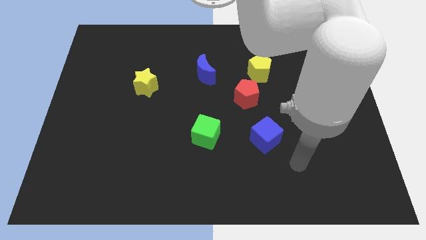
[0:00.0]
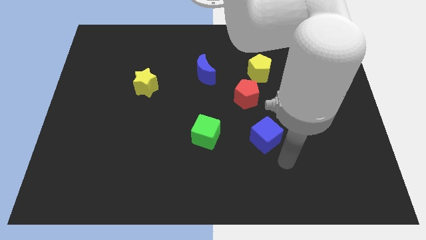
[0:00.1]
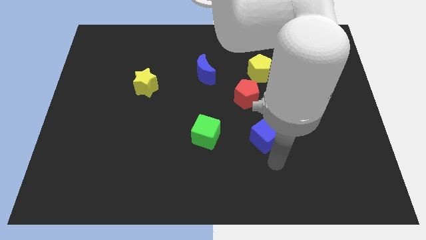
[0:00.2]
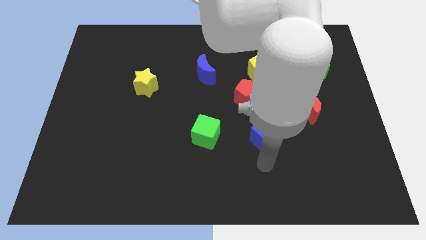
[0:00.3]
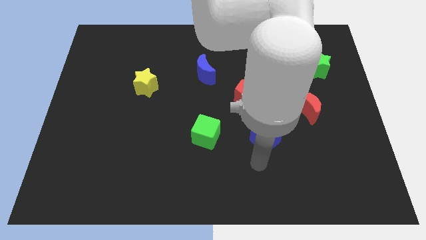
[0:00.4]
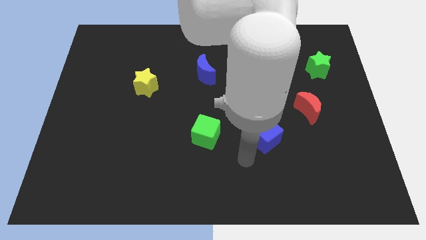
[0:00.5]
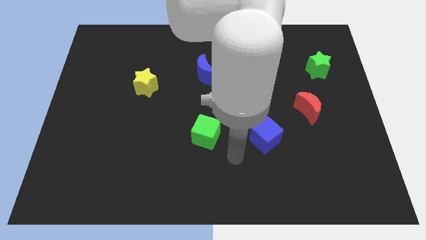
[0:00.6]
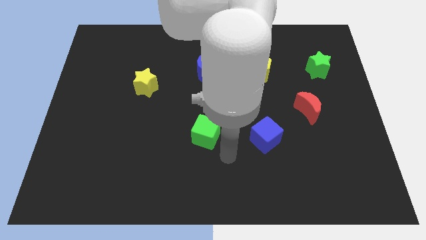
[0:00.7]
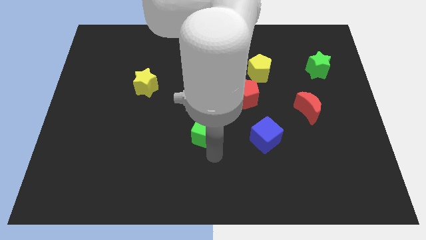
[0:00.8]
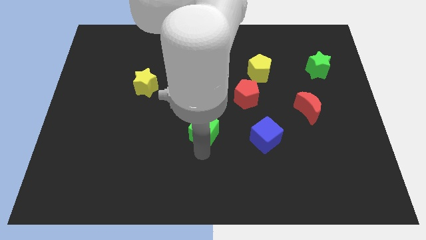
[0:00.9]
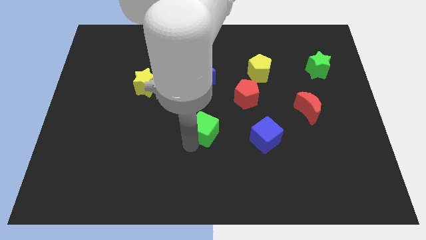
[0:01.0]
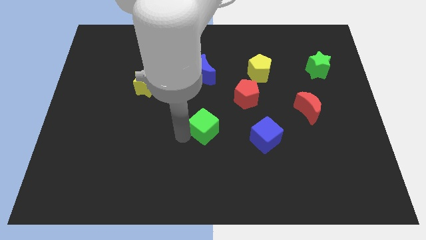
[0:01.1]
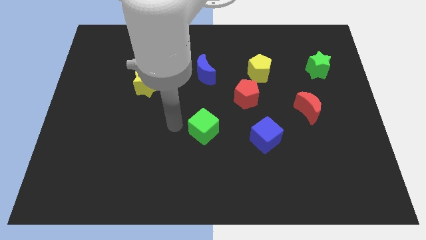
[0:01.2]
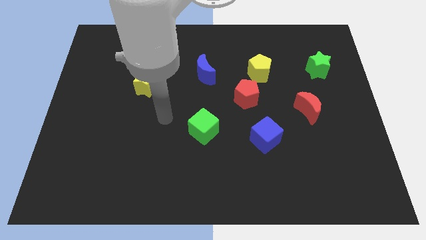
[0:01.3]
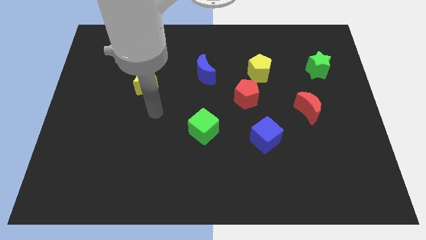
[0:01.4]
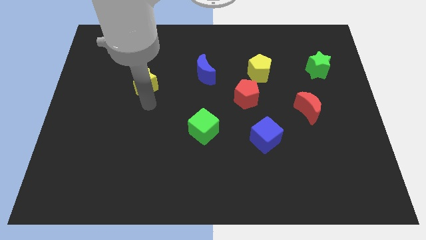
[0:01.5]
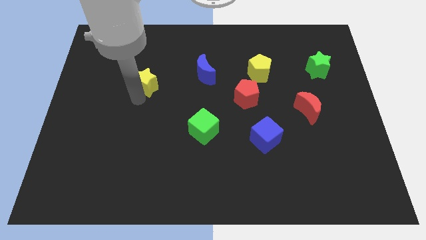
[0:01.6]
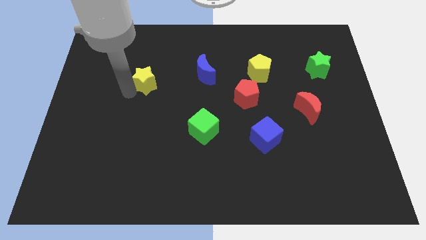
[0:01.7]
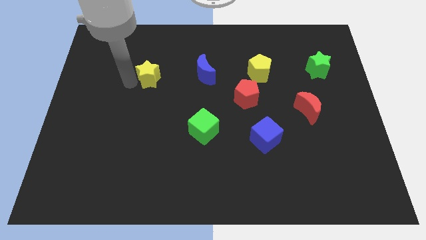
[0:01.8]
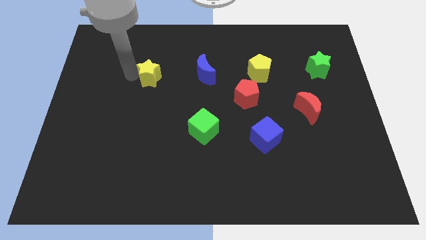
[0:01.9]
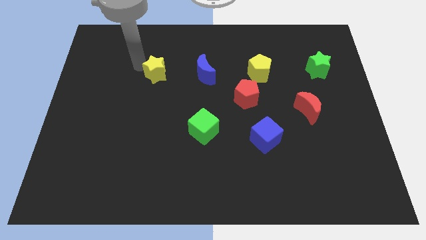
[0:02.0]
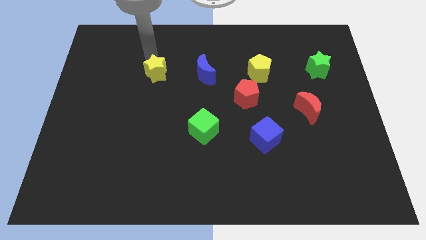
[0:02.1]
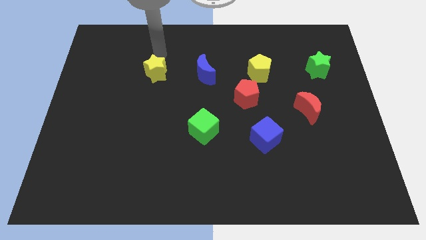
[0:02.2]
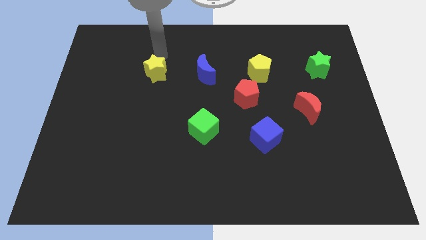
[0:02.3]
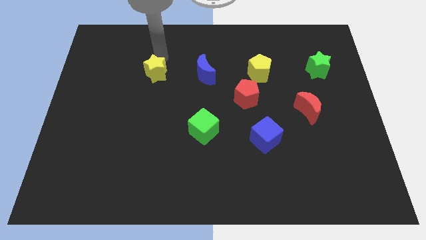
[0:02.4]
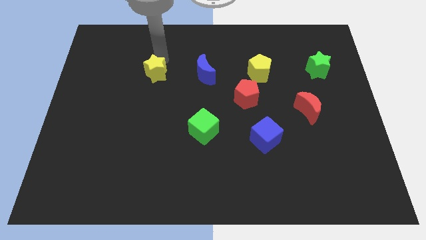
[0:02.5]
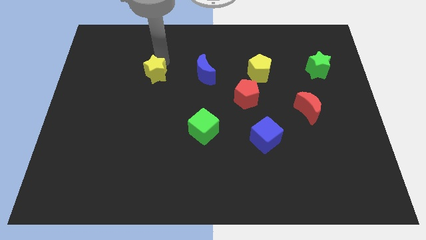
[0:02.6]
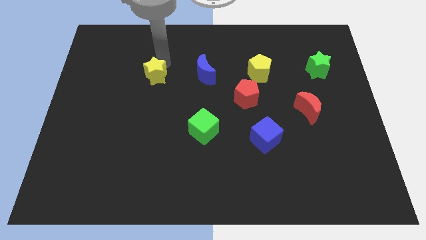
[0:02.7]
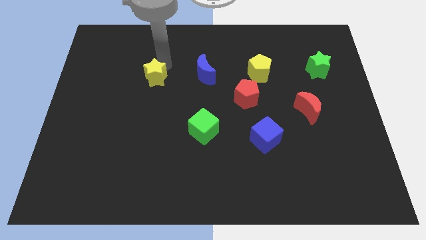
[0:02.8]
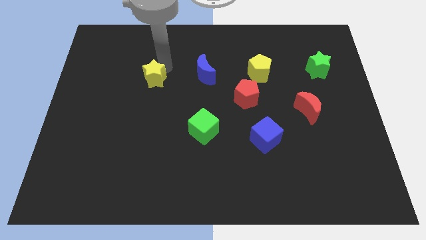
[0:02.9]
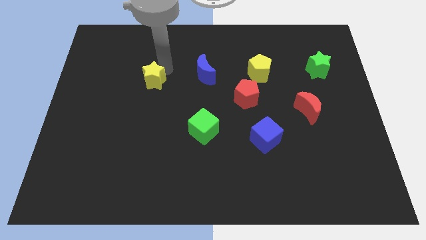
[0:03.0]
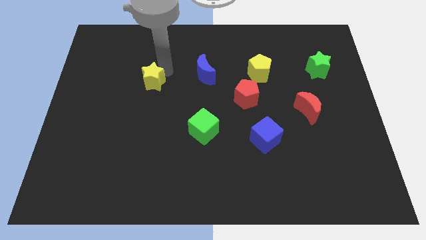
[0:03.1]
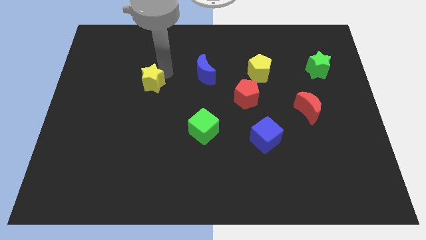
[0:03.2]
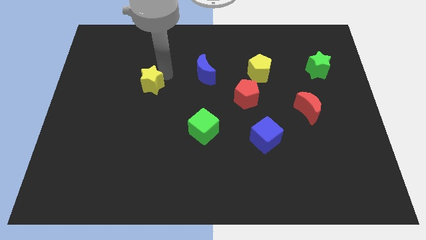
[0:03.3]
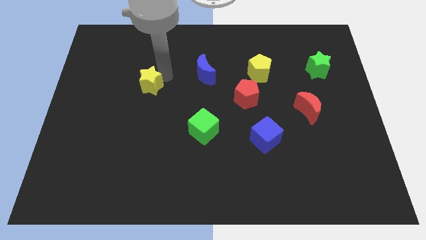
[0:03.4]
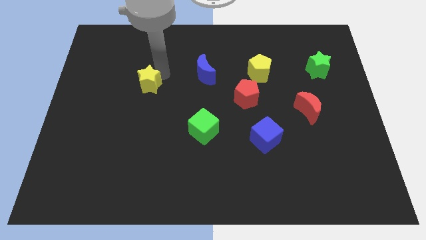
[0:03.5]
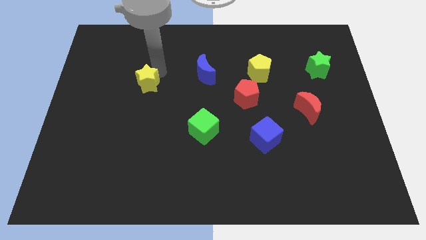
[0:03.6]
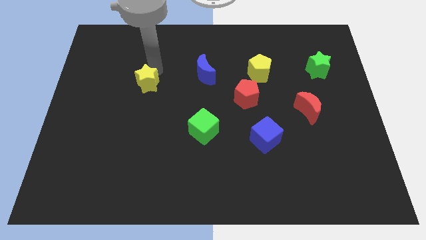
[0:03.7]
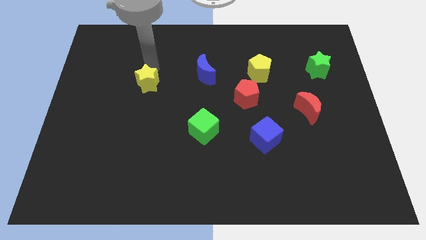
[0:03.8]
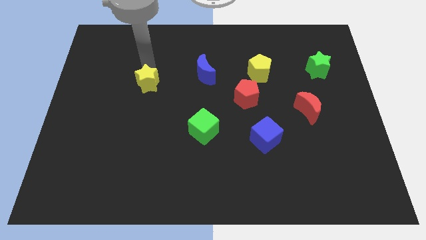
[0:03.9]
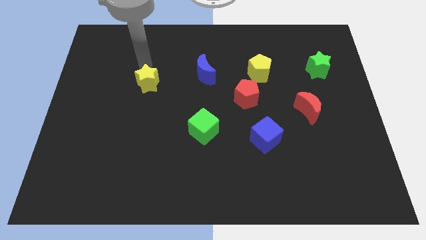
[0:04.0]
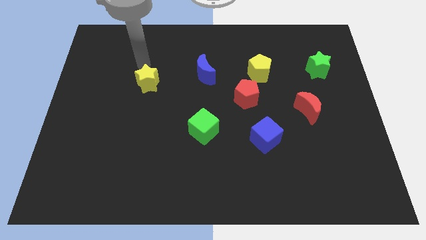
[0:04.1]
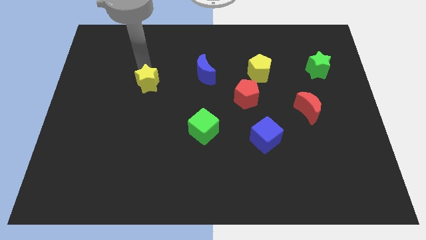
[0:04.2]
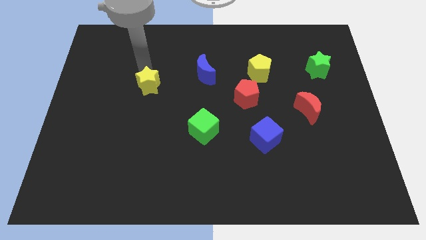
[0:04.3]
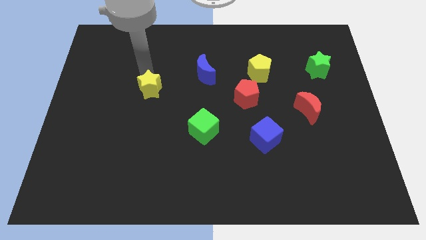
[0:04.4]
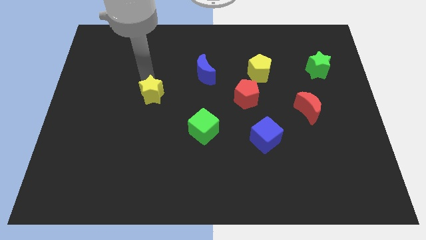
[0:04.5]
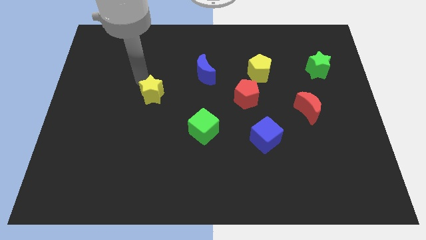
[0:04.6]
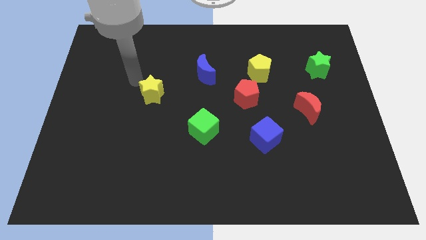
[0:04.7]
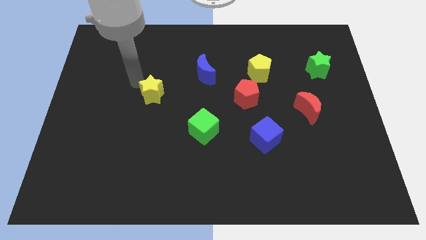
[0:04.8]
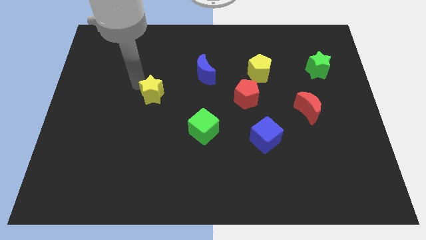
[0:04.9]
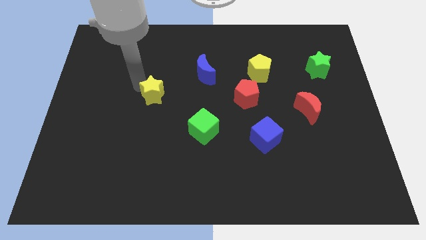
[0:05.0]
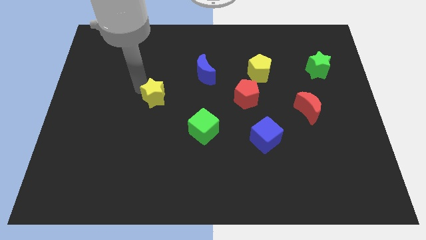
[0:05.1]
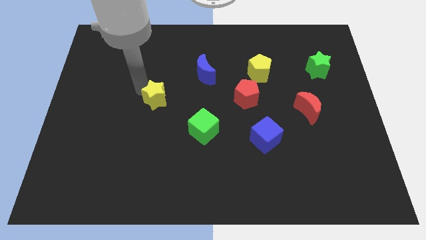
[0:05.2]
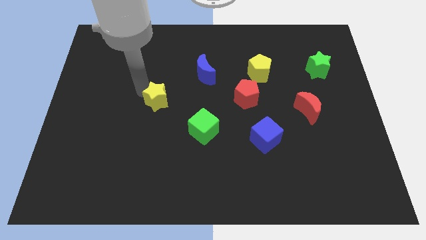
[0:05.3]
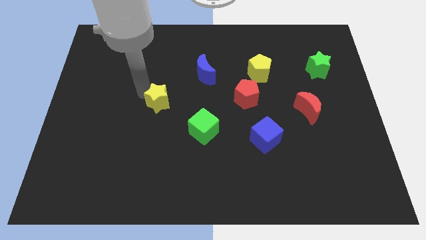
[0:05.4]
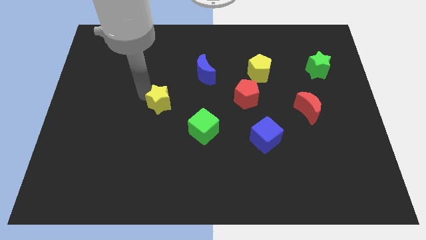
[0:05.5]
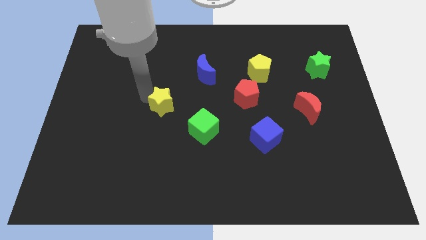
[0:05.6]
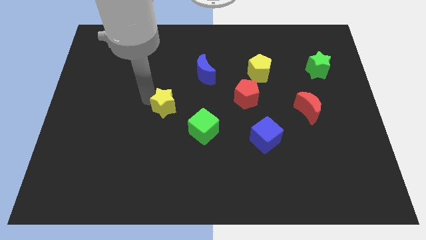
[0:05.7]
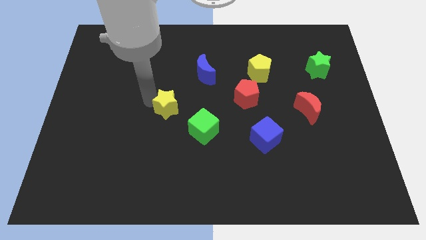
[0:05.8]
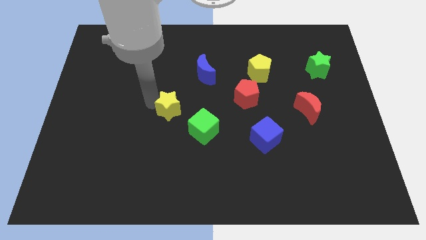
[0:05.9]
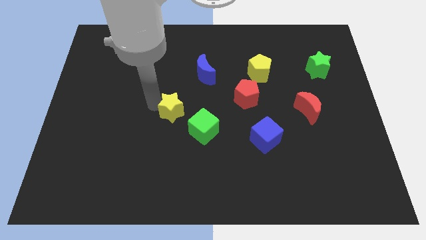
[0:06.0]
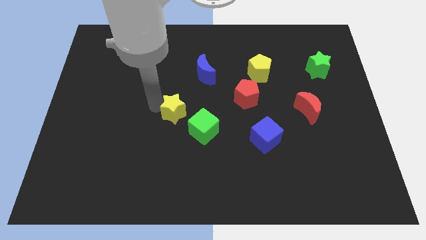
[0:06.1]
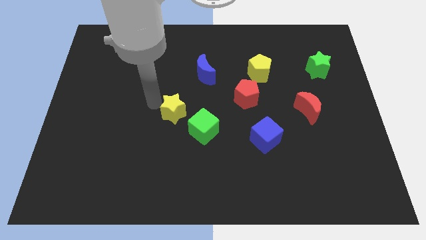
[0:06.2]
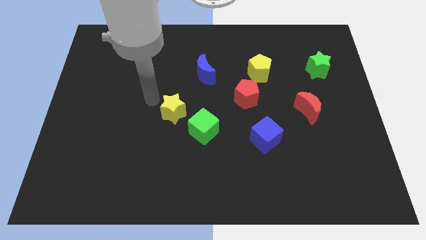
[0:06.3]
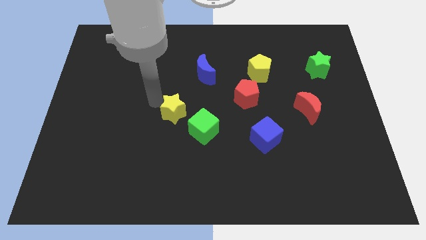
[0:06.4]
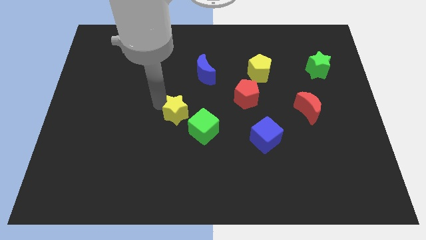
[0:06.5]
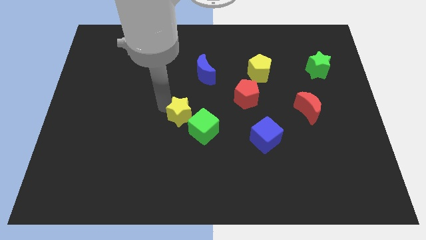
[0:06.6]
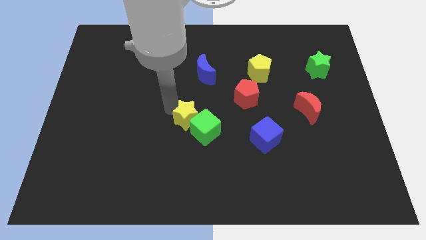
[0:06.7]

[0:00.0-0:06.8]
put the yellow star next to the green cube
